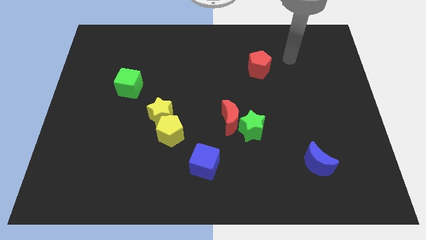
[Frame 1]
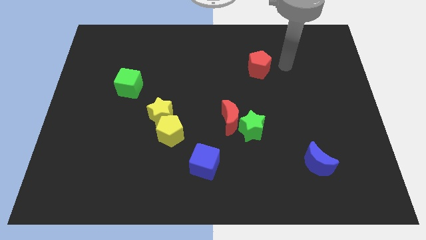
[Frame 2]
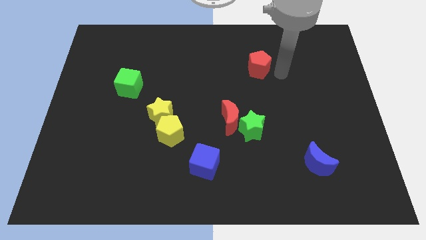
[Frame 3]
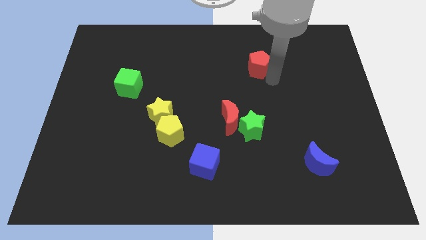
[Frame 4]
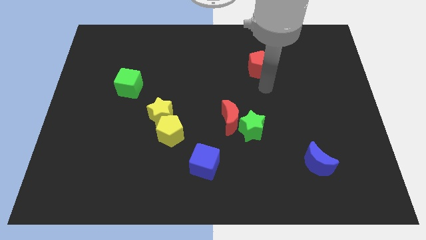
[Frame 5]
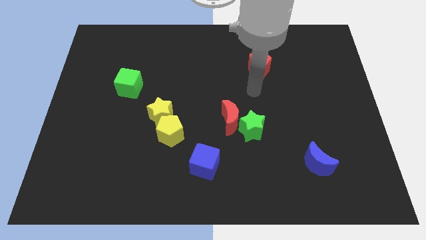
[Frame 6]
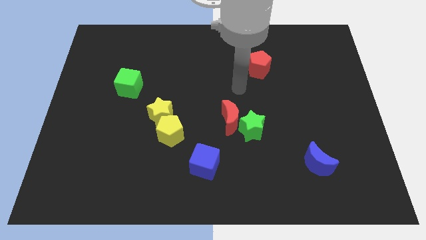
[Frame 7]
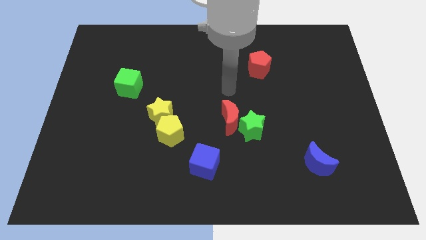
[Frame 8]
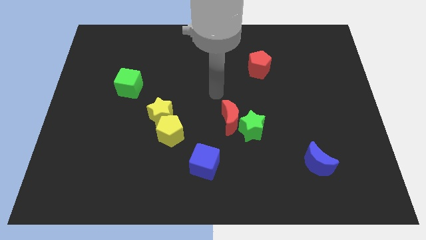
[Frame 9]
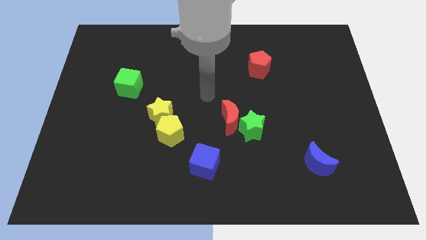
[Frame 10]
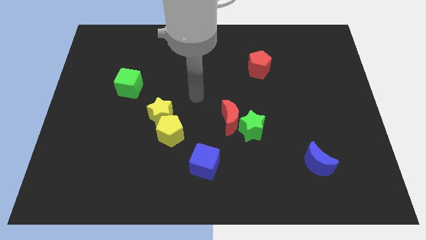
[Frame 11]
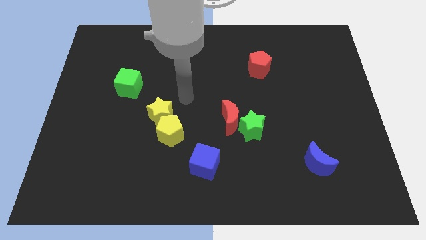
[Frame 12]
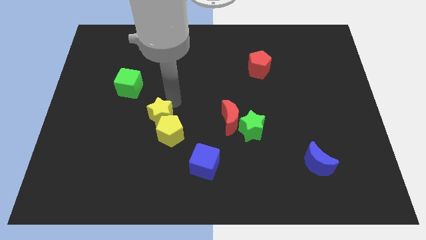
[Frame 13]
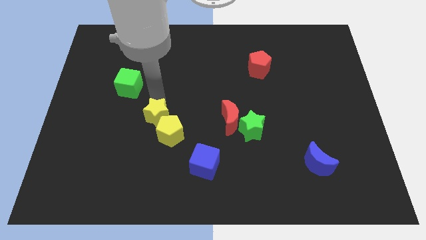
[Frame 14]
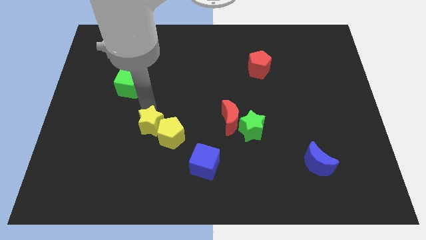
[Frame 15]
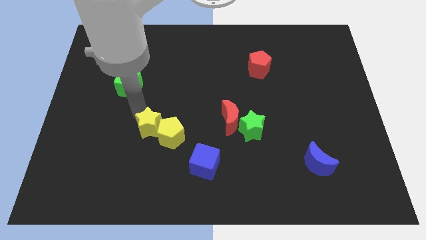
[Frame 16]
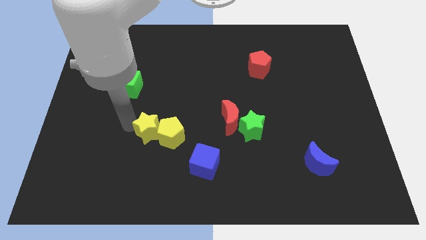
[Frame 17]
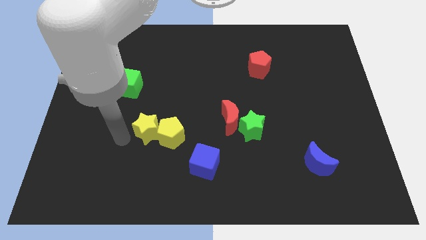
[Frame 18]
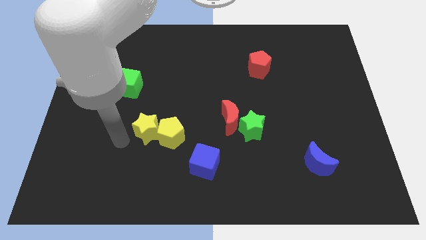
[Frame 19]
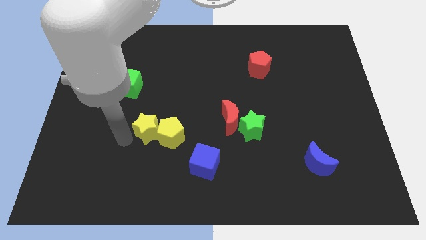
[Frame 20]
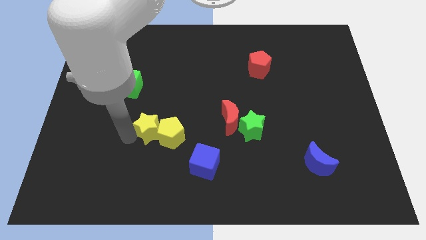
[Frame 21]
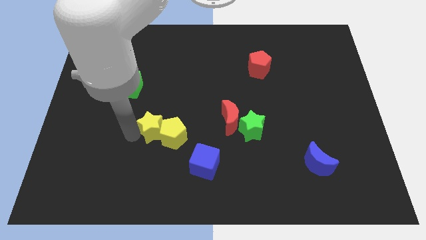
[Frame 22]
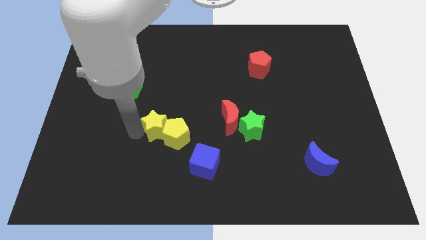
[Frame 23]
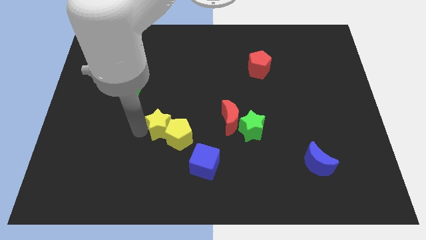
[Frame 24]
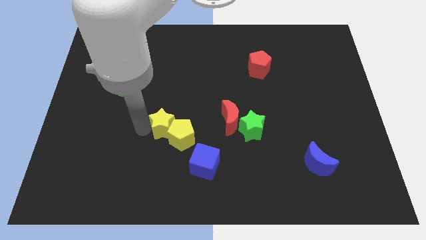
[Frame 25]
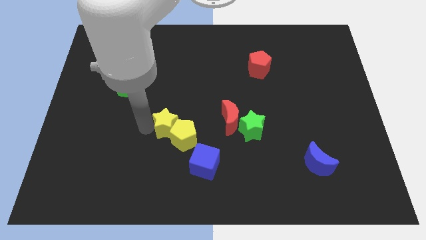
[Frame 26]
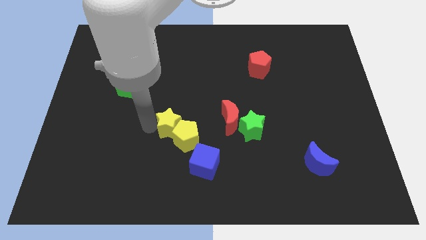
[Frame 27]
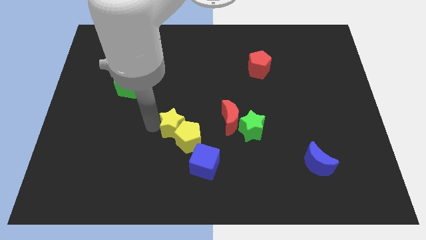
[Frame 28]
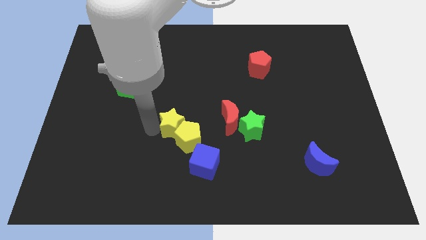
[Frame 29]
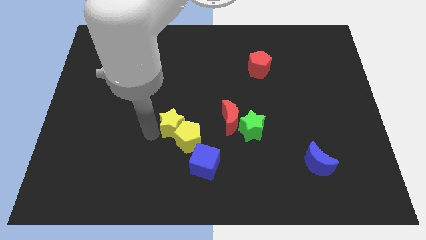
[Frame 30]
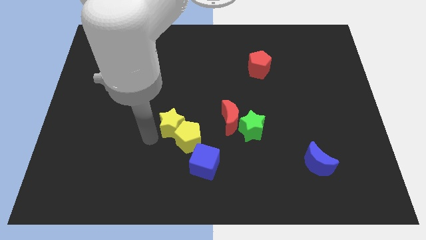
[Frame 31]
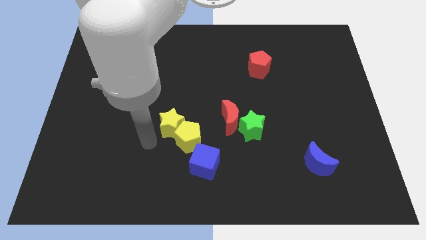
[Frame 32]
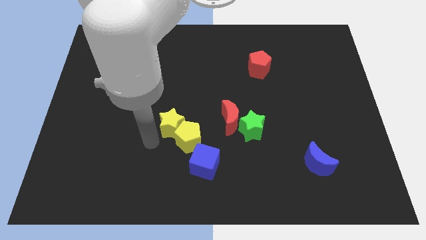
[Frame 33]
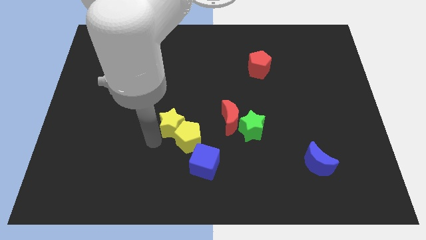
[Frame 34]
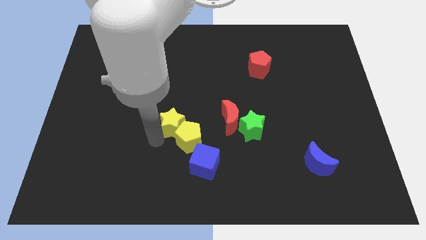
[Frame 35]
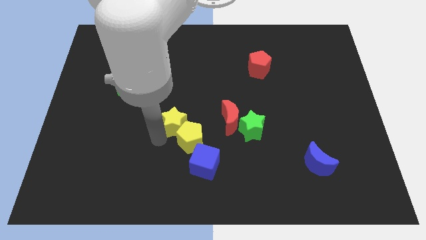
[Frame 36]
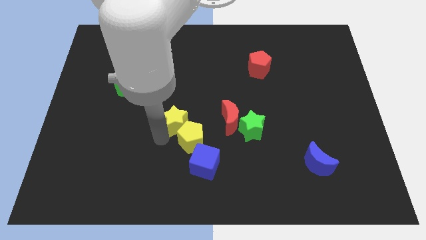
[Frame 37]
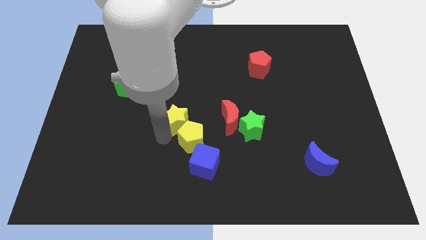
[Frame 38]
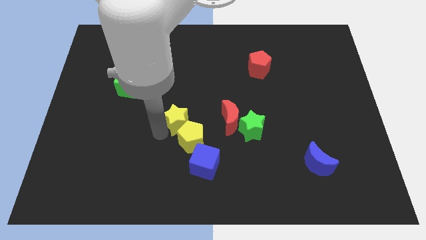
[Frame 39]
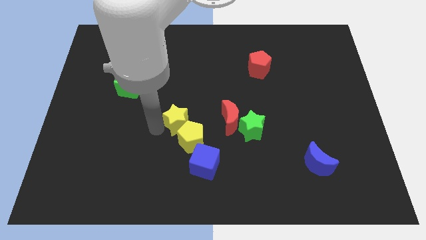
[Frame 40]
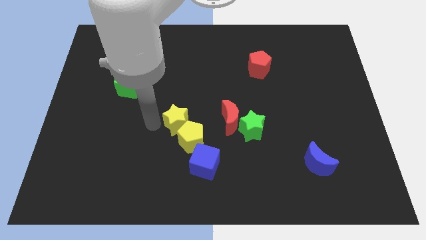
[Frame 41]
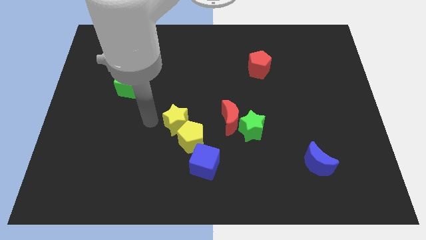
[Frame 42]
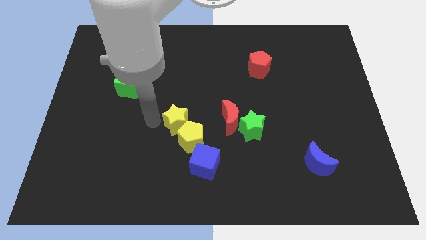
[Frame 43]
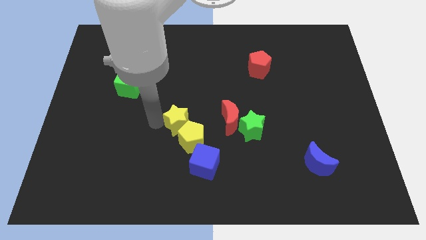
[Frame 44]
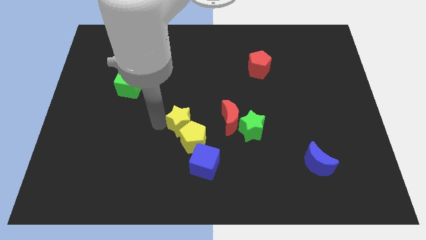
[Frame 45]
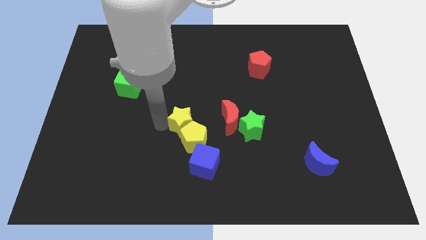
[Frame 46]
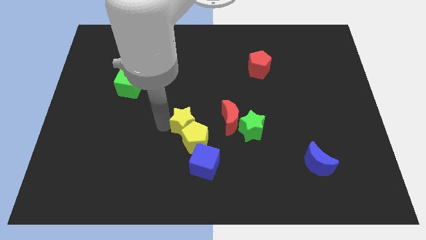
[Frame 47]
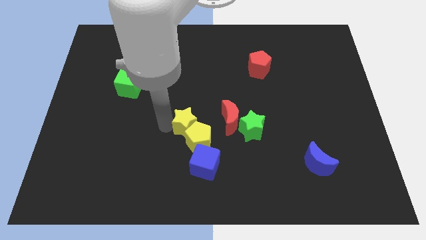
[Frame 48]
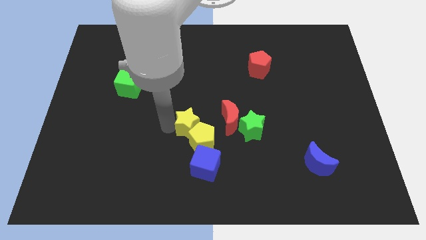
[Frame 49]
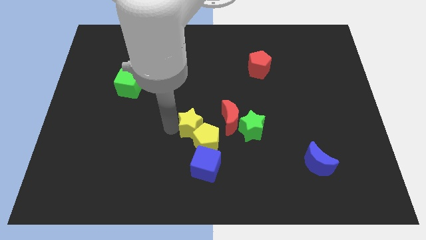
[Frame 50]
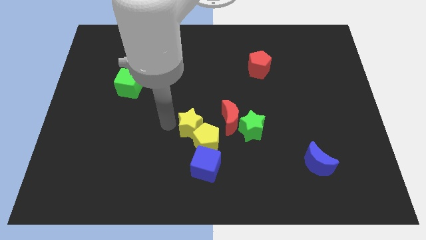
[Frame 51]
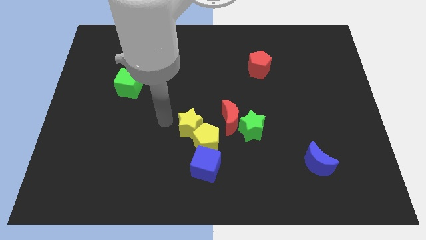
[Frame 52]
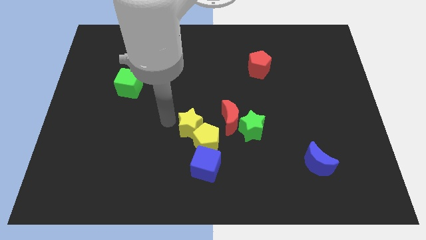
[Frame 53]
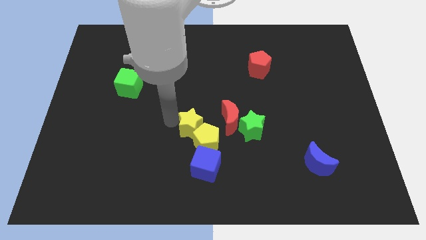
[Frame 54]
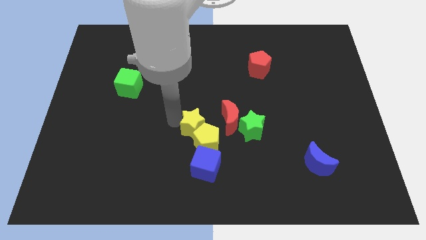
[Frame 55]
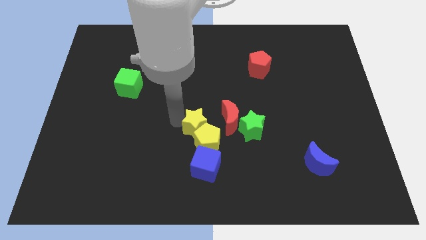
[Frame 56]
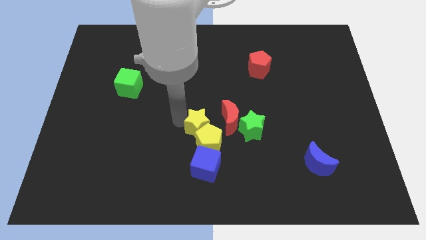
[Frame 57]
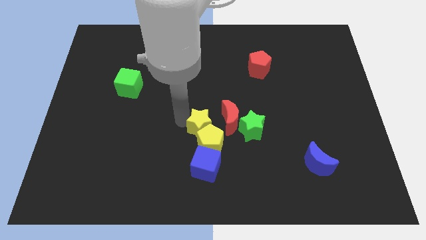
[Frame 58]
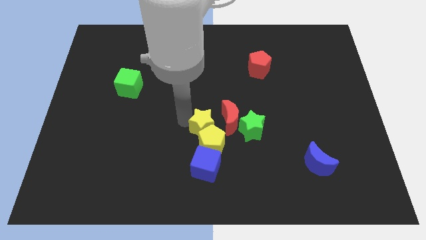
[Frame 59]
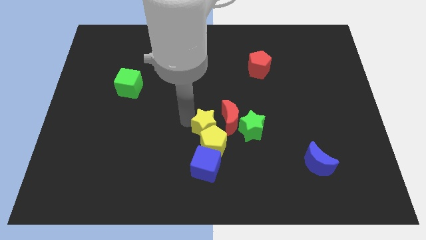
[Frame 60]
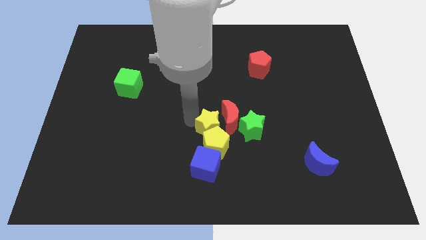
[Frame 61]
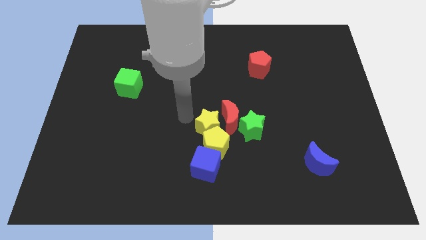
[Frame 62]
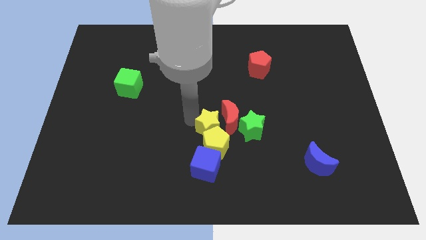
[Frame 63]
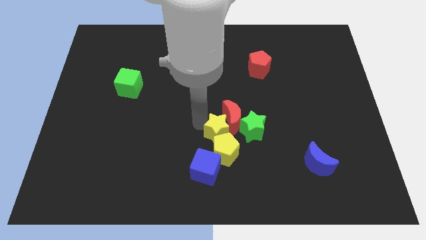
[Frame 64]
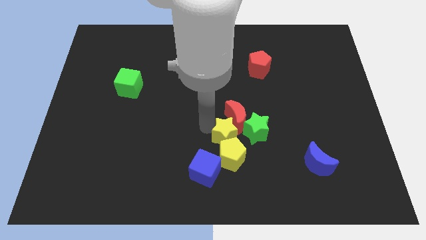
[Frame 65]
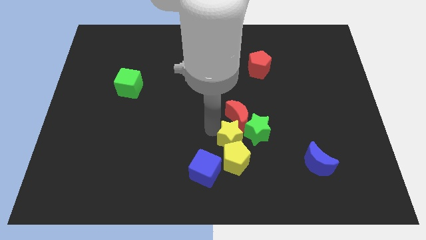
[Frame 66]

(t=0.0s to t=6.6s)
slide the yellow star to the green star

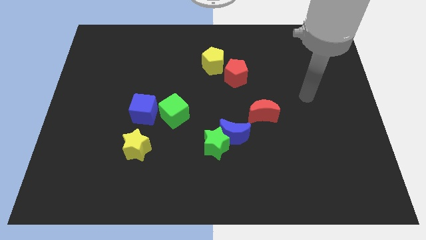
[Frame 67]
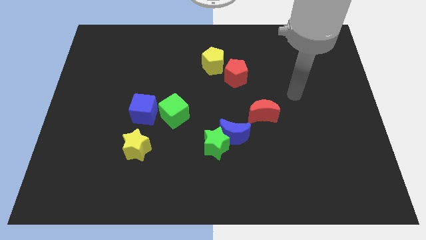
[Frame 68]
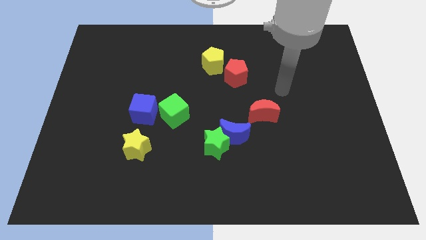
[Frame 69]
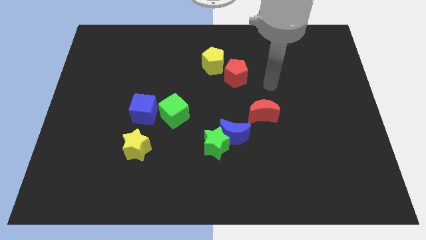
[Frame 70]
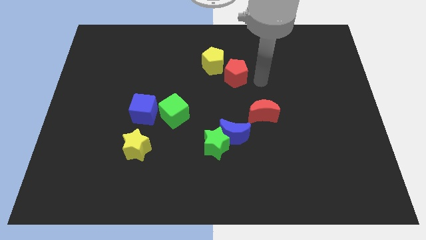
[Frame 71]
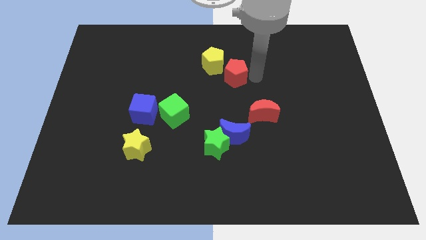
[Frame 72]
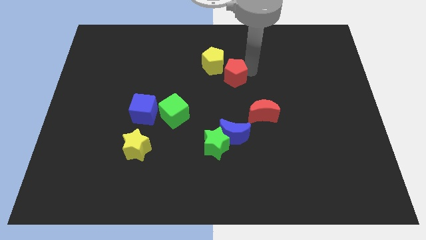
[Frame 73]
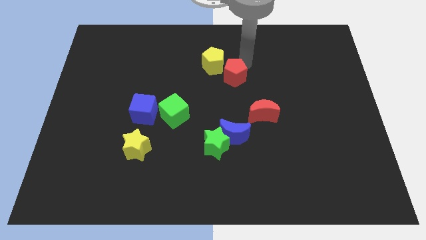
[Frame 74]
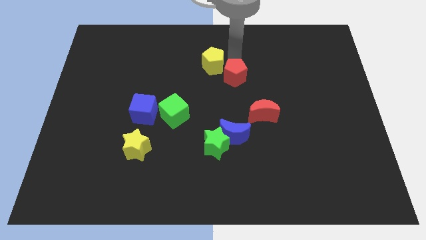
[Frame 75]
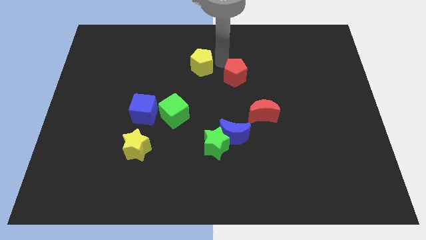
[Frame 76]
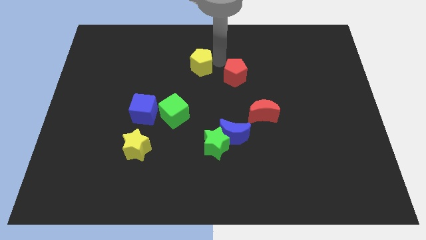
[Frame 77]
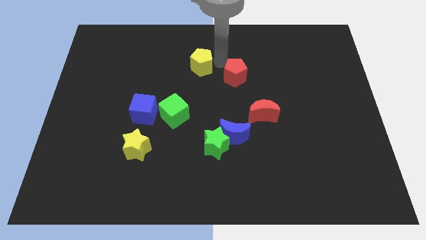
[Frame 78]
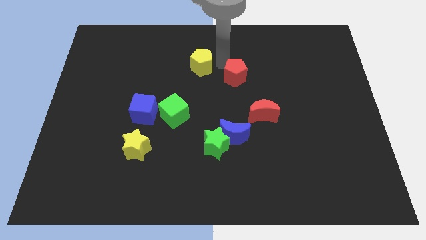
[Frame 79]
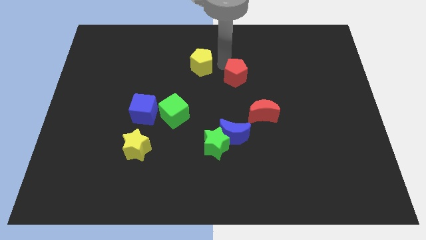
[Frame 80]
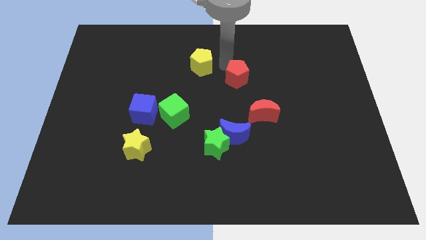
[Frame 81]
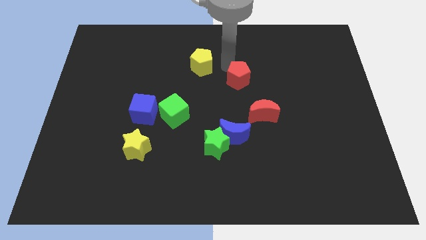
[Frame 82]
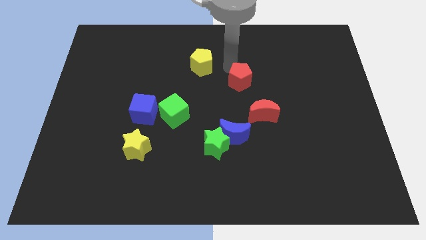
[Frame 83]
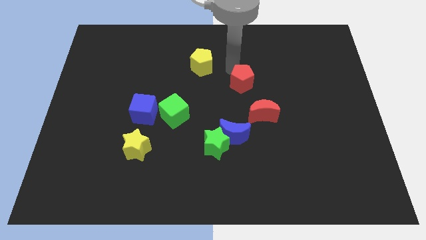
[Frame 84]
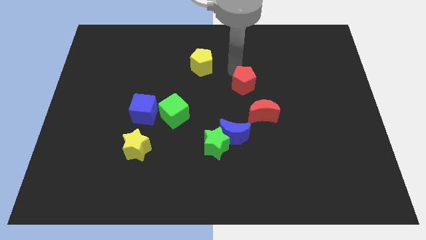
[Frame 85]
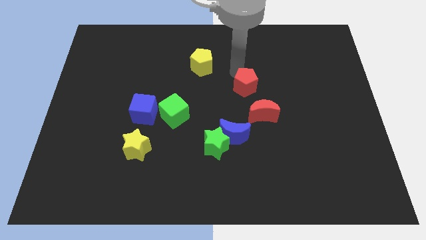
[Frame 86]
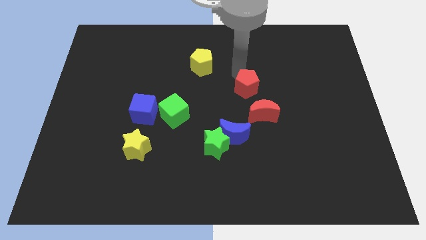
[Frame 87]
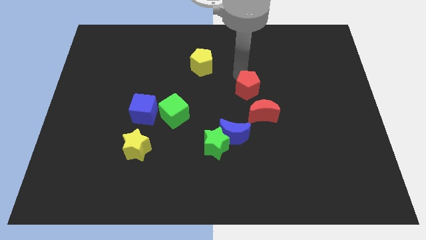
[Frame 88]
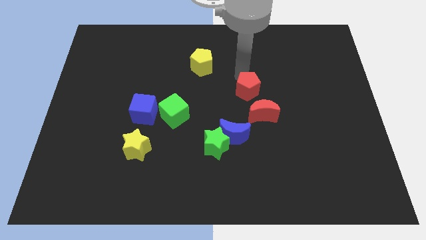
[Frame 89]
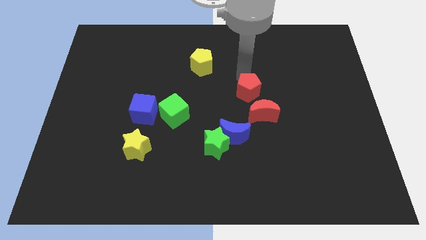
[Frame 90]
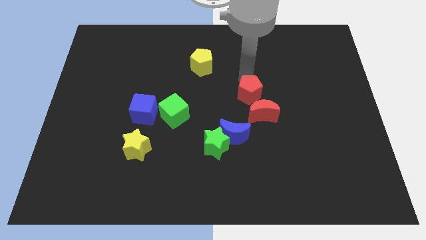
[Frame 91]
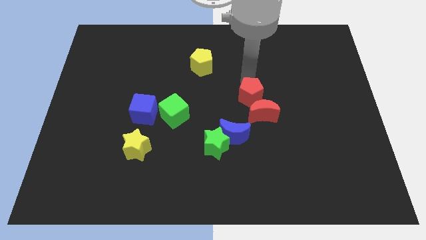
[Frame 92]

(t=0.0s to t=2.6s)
move the red pentagon next to the red moon
